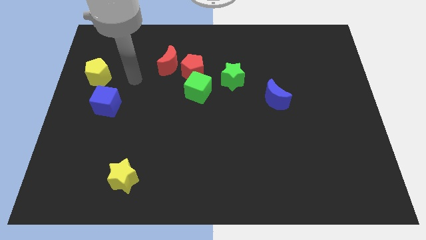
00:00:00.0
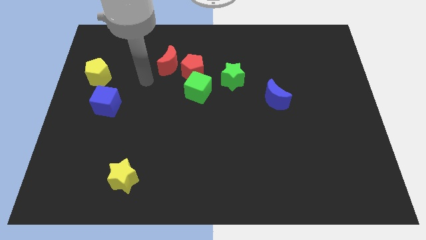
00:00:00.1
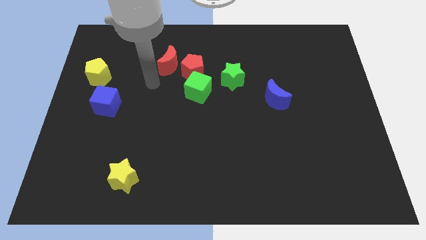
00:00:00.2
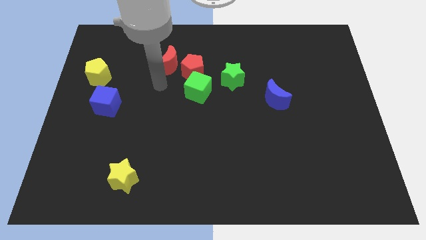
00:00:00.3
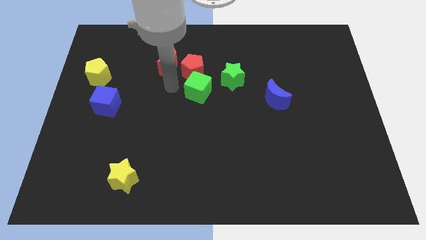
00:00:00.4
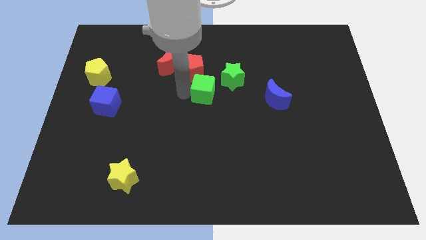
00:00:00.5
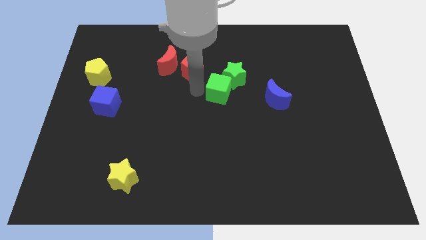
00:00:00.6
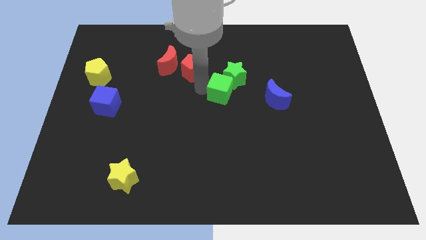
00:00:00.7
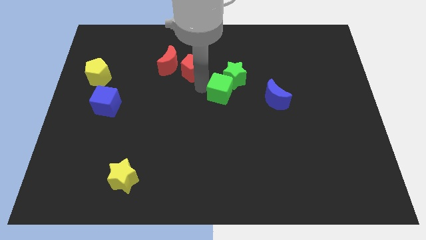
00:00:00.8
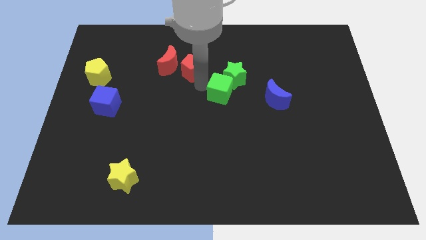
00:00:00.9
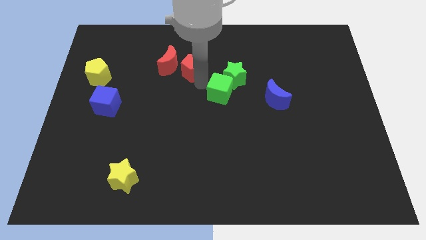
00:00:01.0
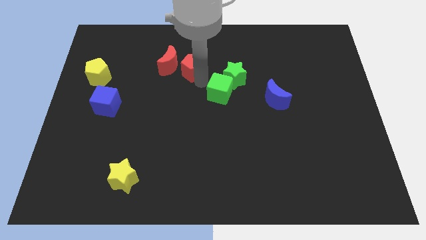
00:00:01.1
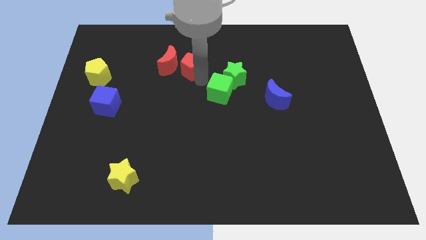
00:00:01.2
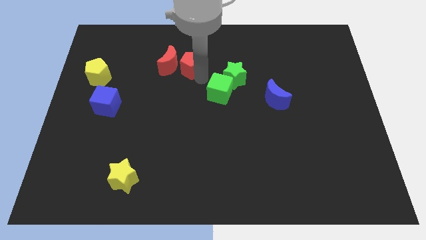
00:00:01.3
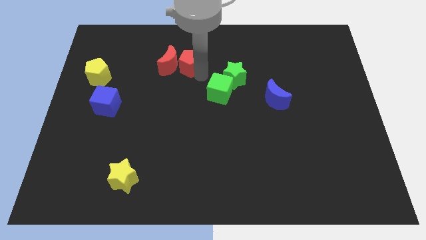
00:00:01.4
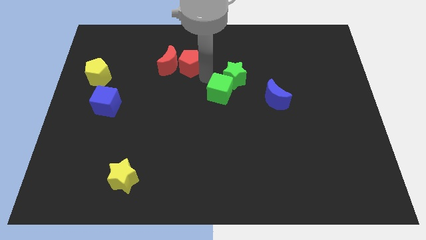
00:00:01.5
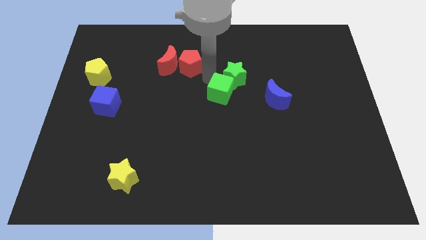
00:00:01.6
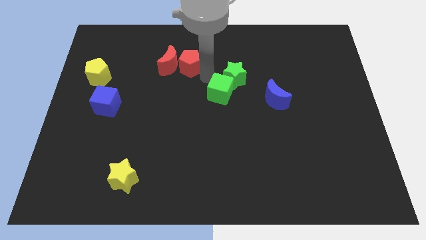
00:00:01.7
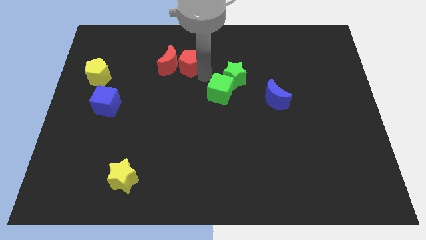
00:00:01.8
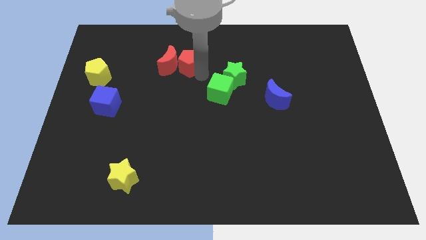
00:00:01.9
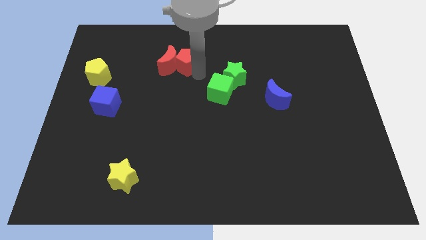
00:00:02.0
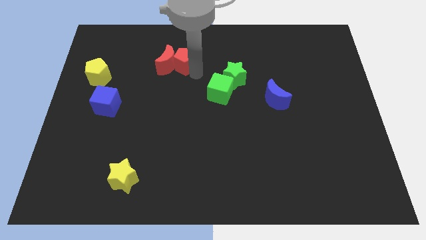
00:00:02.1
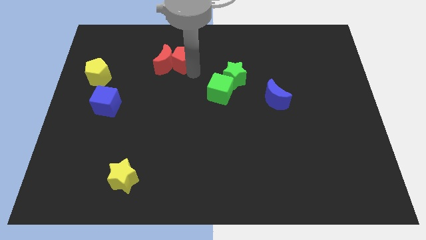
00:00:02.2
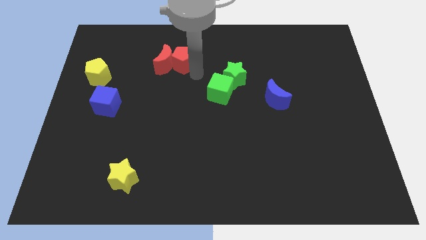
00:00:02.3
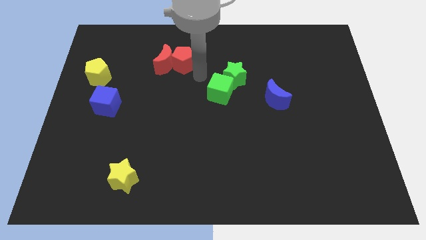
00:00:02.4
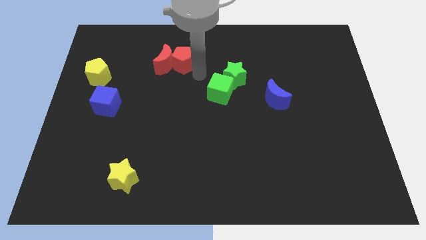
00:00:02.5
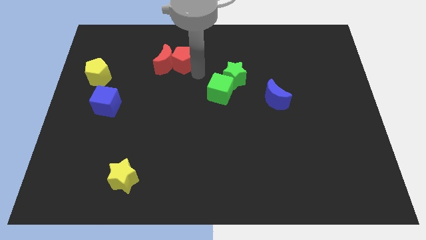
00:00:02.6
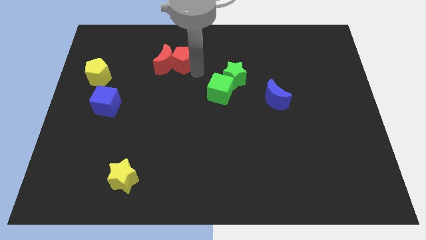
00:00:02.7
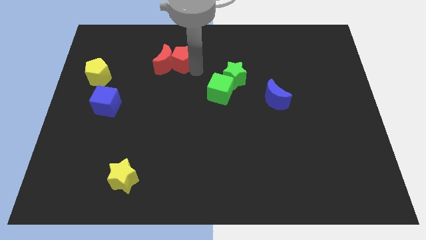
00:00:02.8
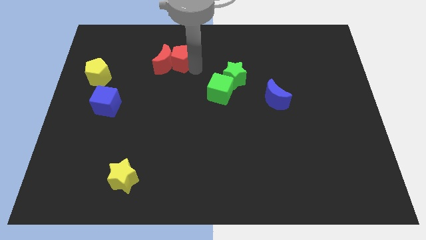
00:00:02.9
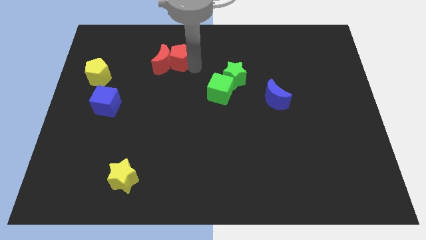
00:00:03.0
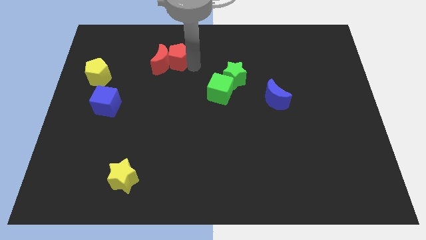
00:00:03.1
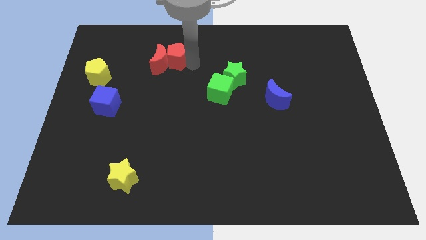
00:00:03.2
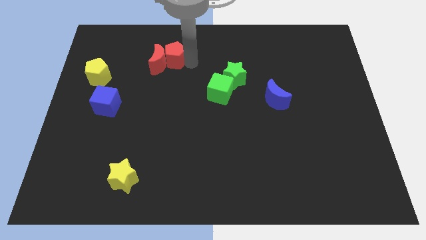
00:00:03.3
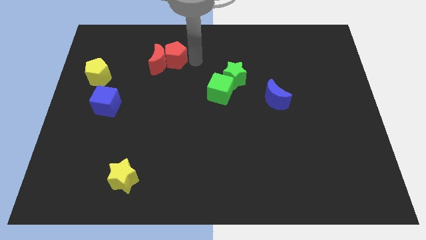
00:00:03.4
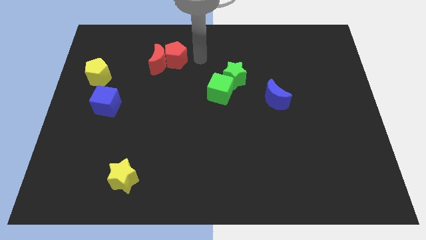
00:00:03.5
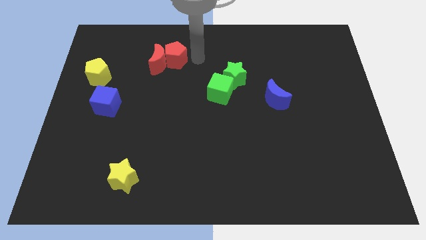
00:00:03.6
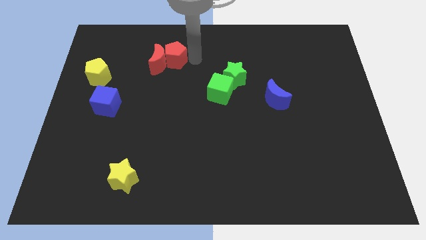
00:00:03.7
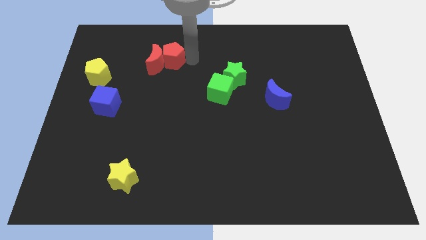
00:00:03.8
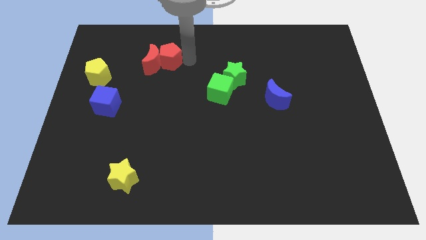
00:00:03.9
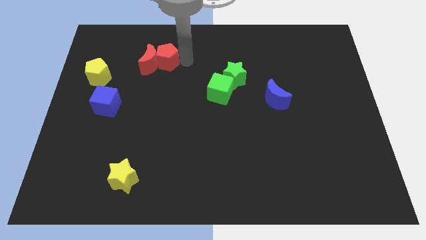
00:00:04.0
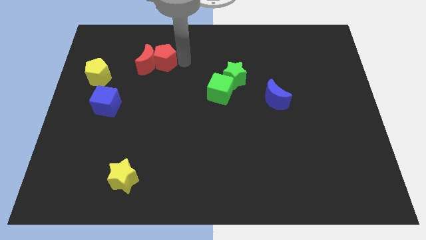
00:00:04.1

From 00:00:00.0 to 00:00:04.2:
move the red pentagon left a little

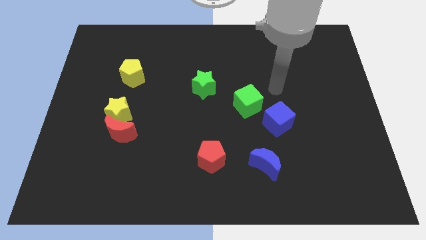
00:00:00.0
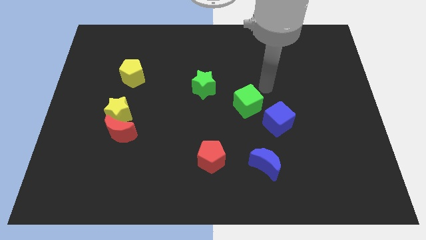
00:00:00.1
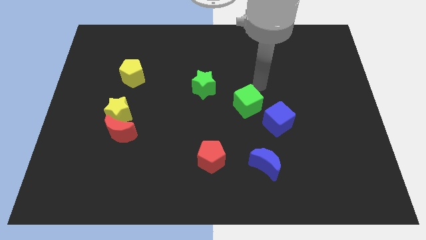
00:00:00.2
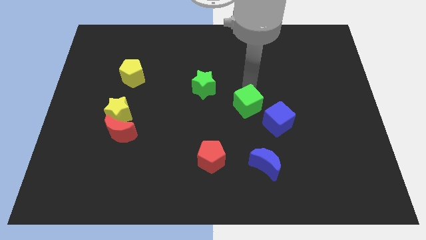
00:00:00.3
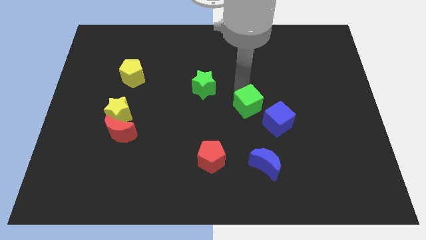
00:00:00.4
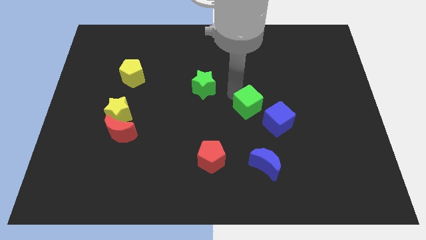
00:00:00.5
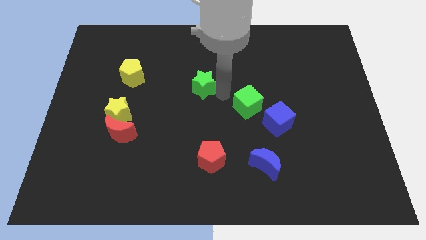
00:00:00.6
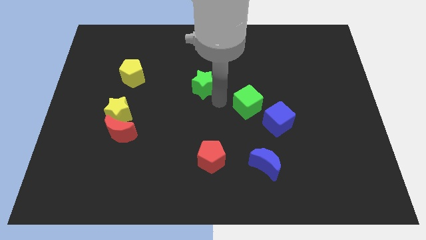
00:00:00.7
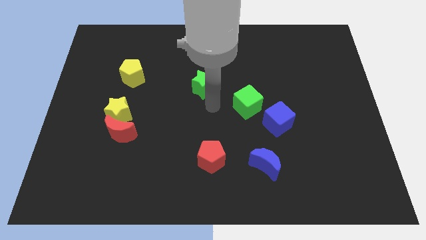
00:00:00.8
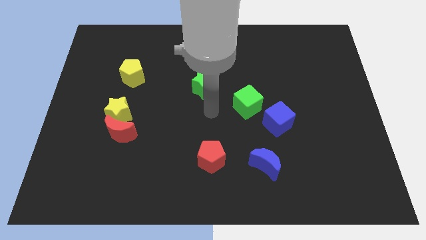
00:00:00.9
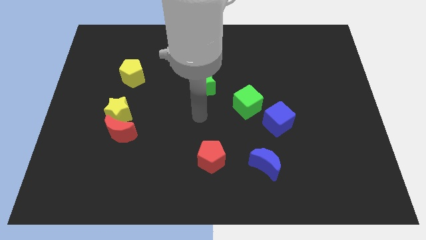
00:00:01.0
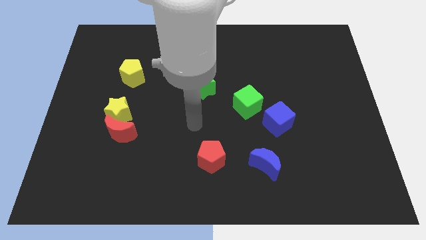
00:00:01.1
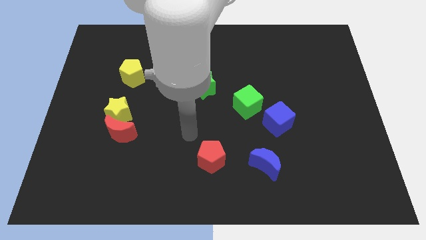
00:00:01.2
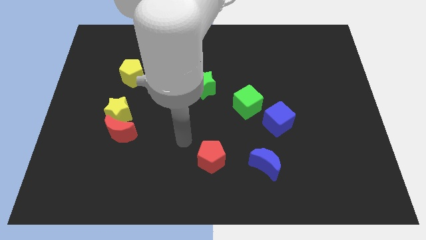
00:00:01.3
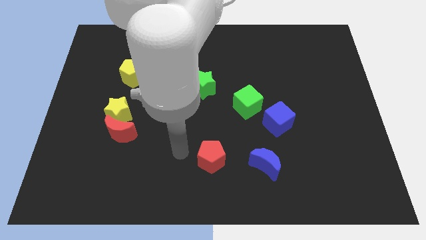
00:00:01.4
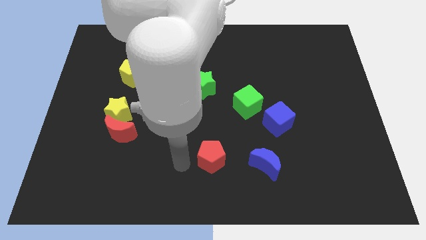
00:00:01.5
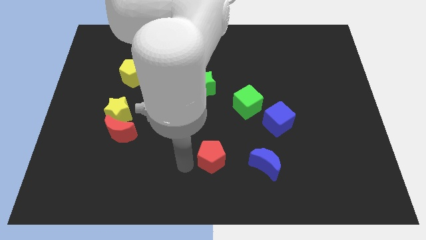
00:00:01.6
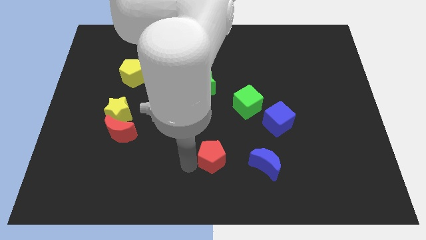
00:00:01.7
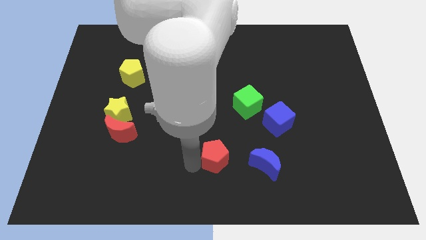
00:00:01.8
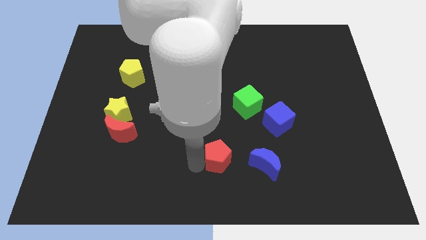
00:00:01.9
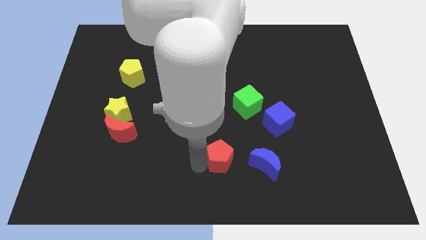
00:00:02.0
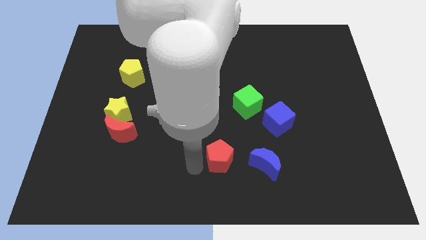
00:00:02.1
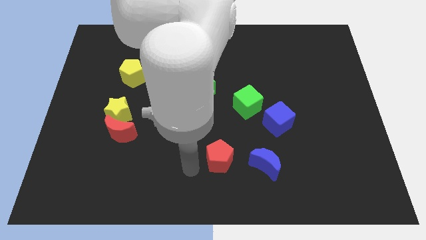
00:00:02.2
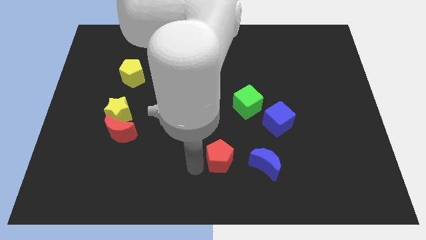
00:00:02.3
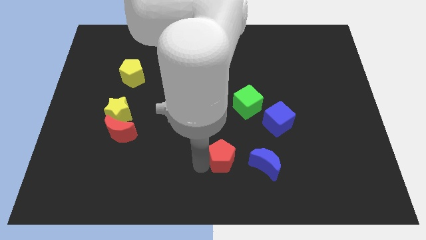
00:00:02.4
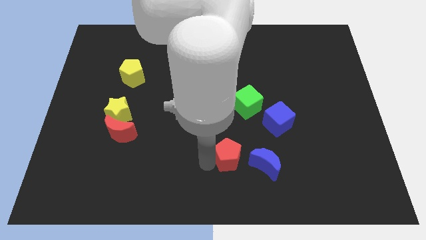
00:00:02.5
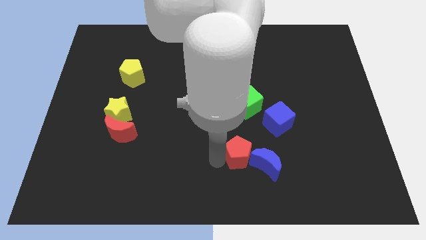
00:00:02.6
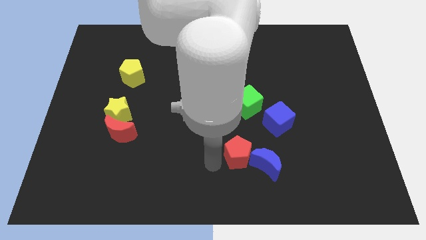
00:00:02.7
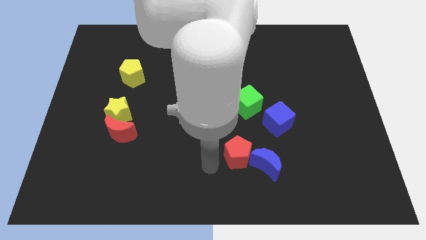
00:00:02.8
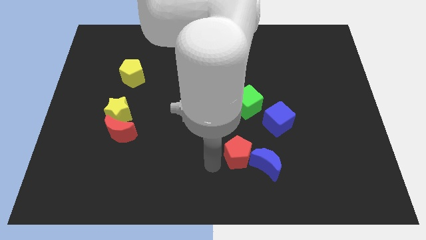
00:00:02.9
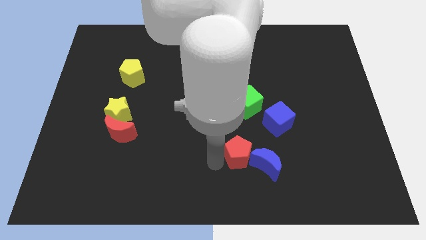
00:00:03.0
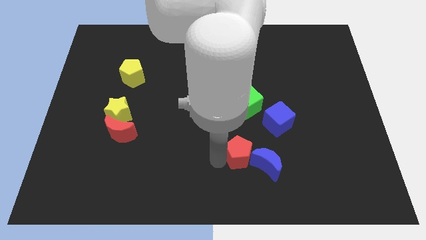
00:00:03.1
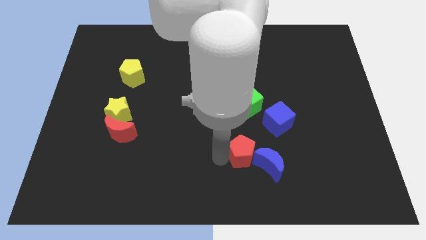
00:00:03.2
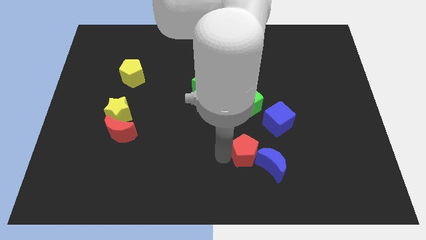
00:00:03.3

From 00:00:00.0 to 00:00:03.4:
slightly push the red pentagon right

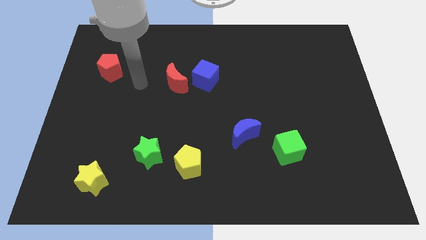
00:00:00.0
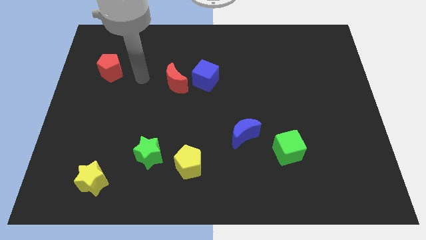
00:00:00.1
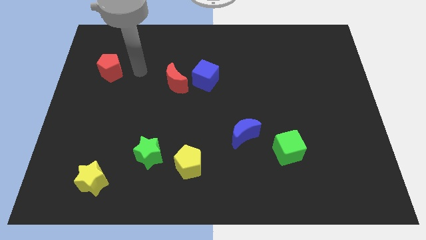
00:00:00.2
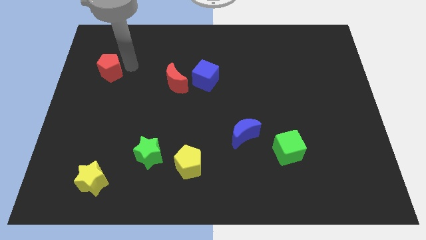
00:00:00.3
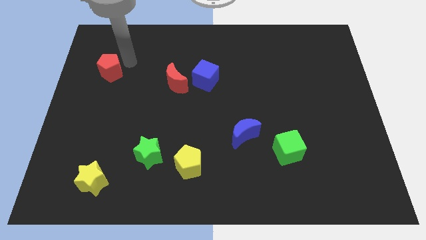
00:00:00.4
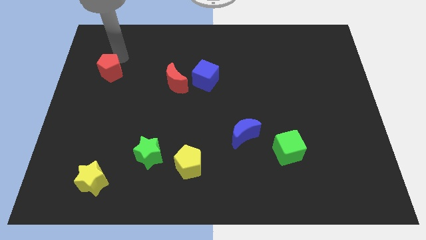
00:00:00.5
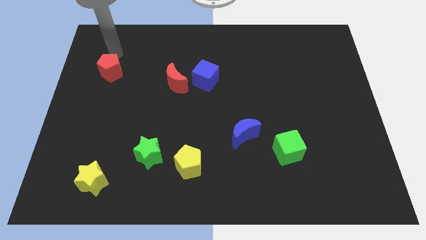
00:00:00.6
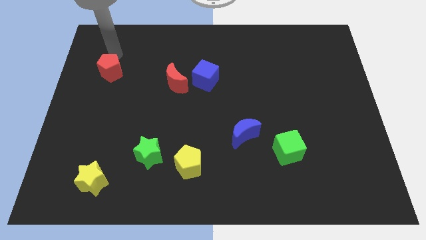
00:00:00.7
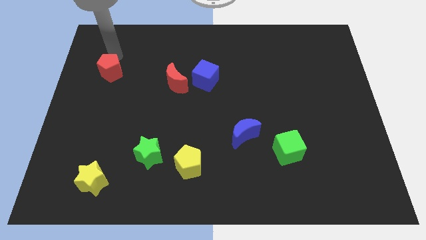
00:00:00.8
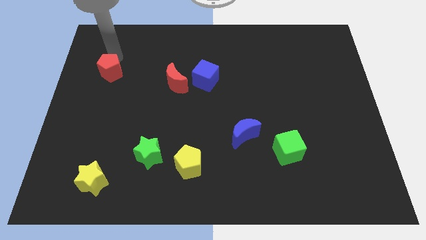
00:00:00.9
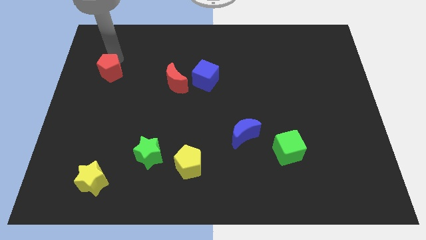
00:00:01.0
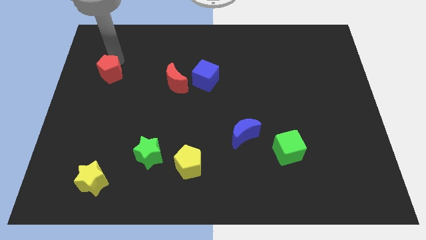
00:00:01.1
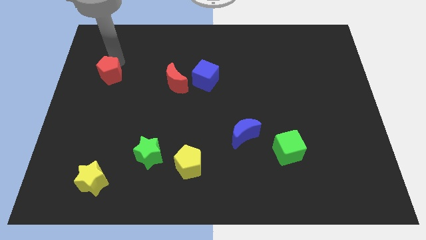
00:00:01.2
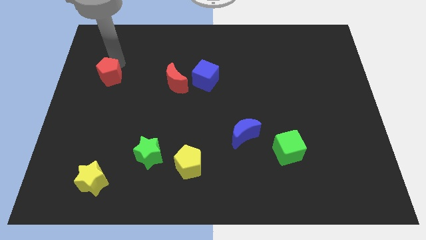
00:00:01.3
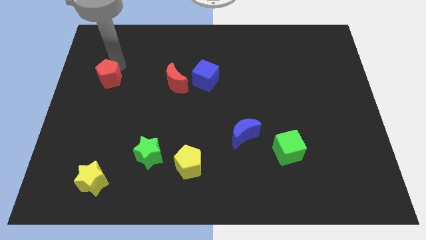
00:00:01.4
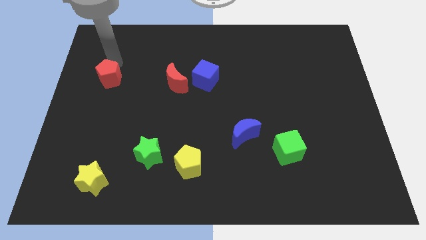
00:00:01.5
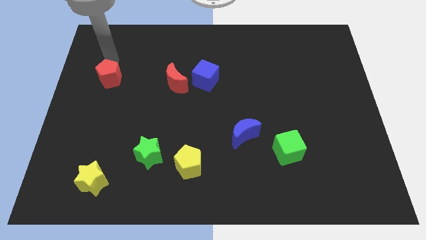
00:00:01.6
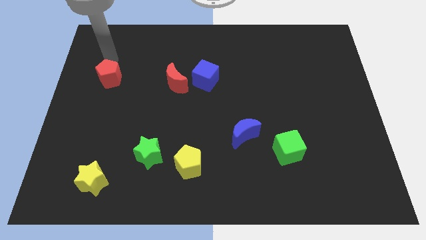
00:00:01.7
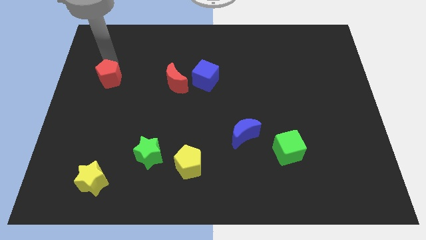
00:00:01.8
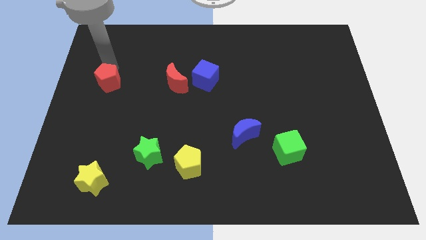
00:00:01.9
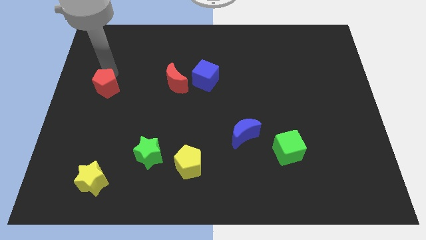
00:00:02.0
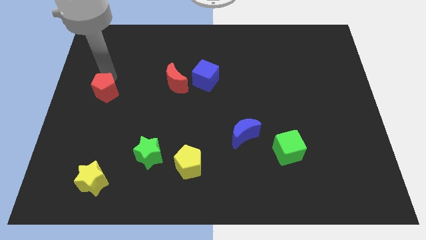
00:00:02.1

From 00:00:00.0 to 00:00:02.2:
push the red pentagon down a bit
